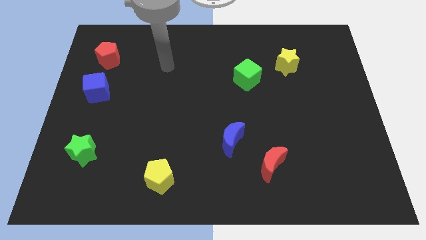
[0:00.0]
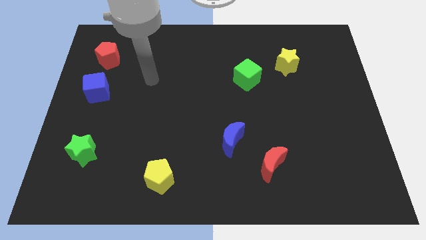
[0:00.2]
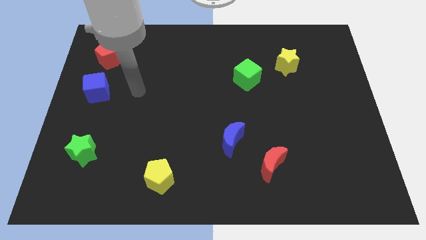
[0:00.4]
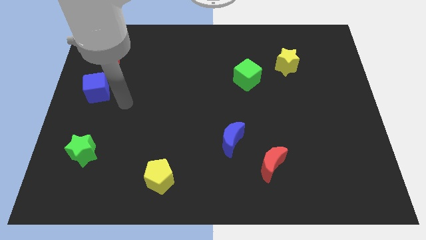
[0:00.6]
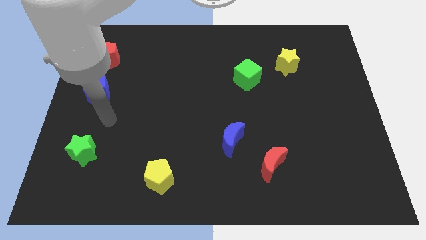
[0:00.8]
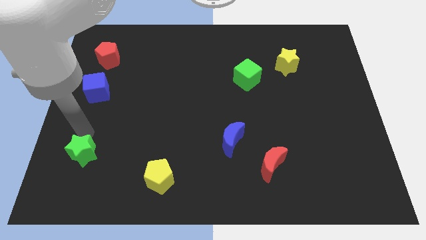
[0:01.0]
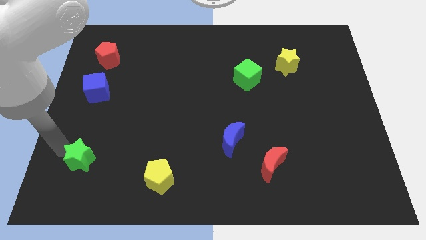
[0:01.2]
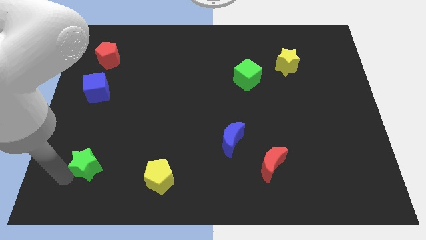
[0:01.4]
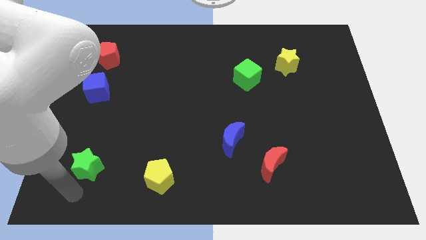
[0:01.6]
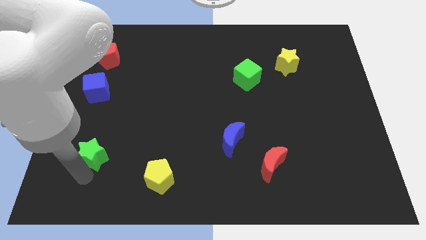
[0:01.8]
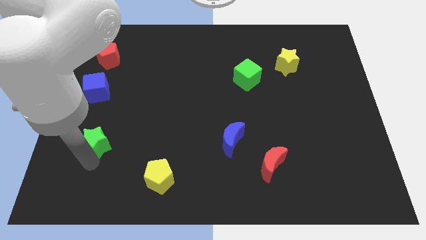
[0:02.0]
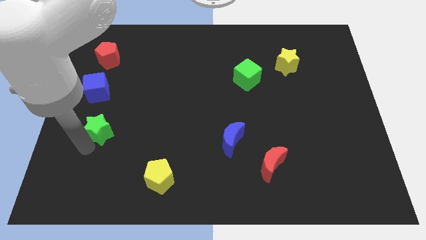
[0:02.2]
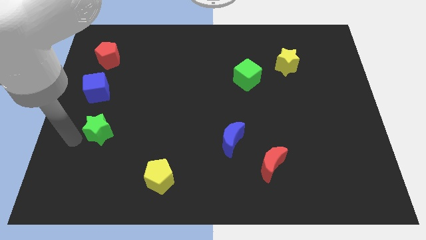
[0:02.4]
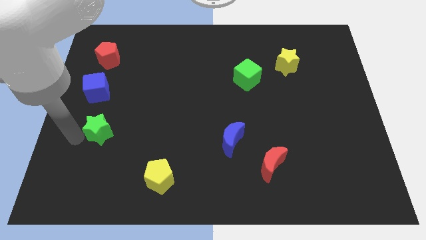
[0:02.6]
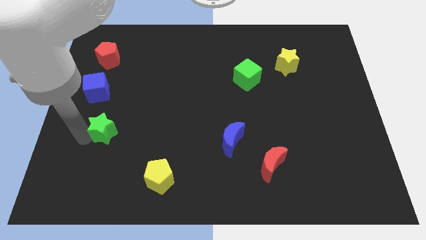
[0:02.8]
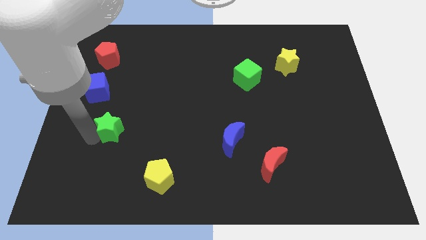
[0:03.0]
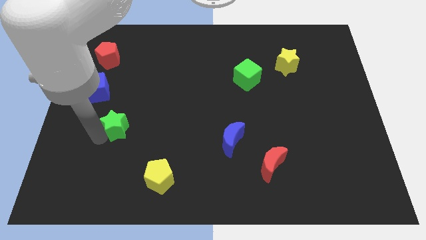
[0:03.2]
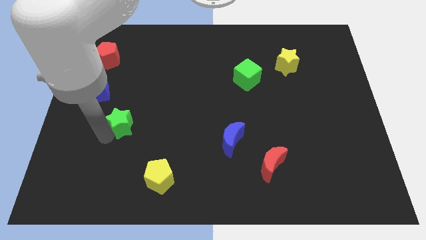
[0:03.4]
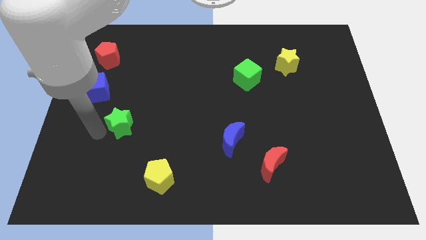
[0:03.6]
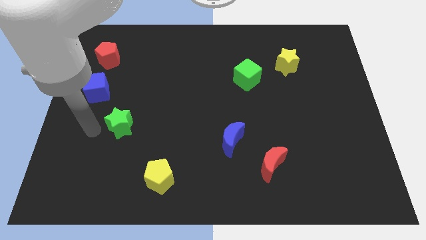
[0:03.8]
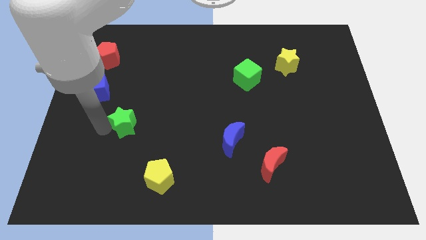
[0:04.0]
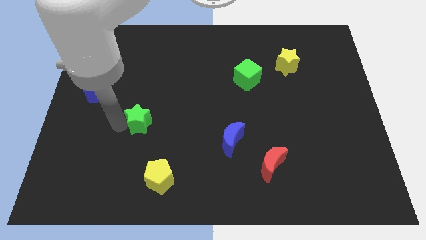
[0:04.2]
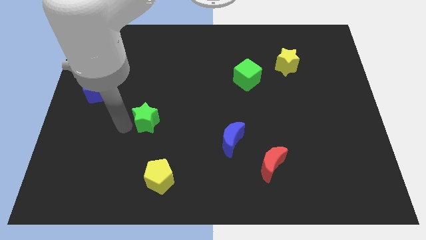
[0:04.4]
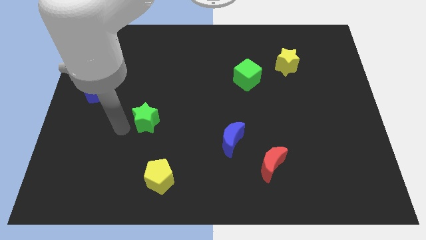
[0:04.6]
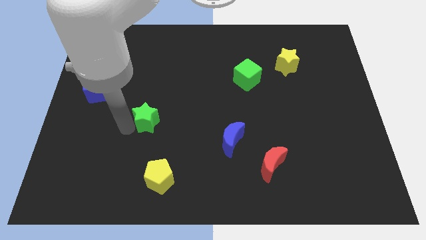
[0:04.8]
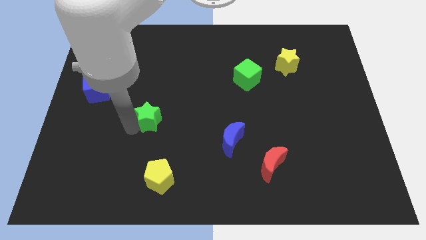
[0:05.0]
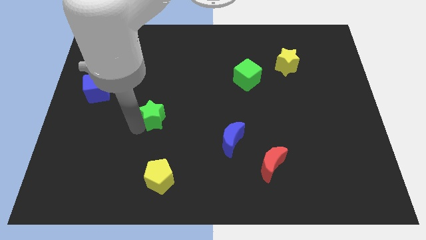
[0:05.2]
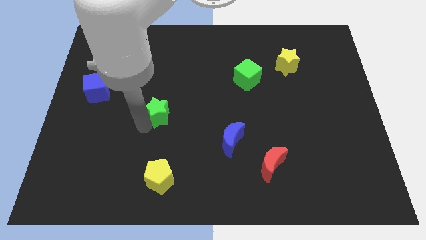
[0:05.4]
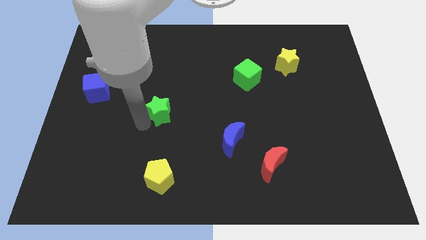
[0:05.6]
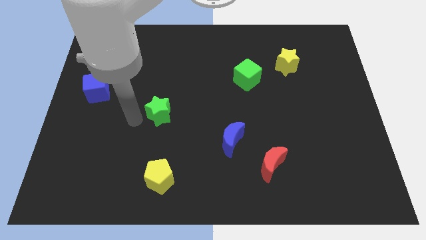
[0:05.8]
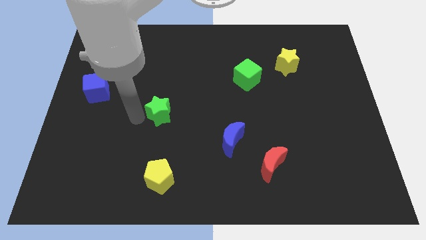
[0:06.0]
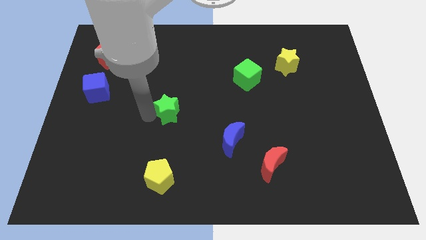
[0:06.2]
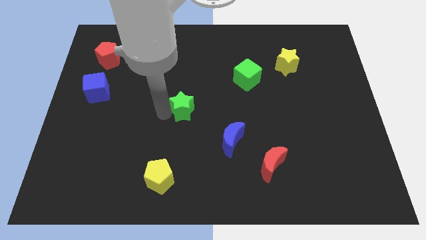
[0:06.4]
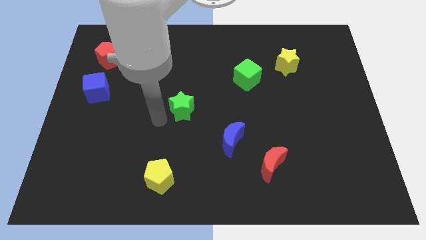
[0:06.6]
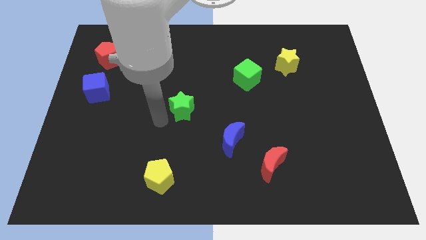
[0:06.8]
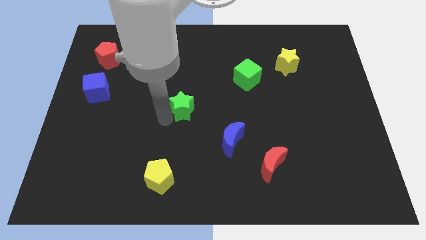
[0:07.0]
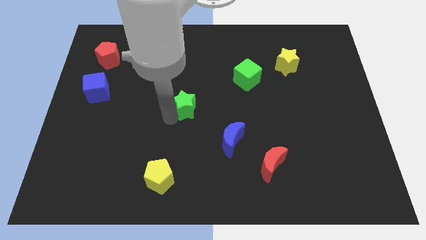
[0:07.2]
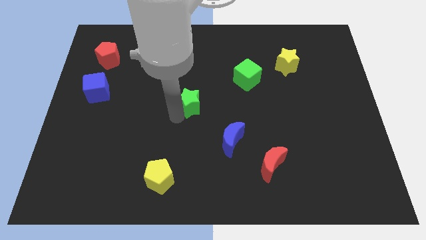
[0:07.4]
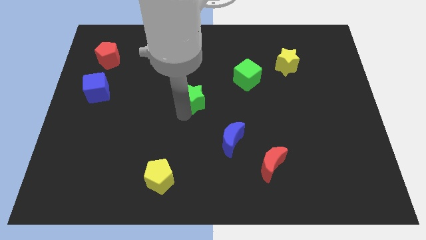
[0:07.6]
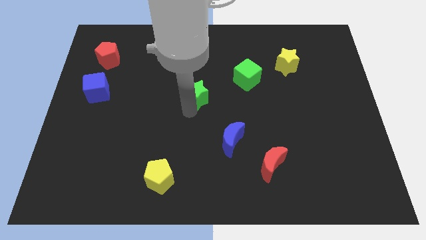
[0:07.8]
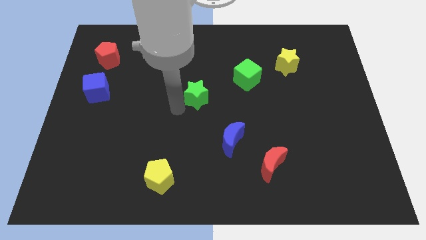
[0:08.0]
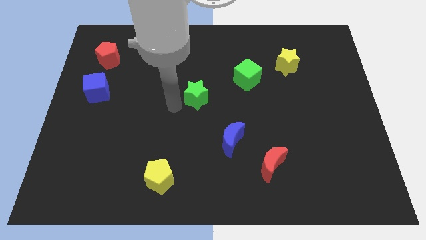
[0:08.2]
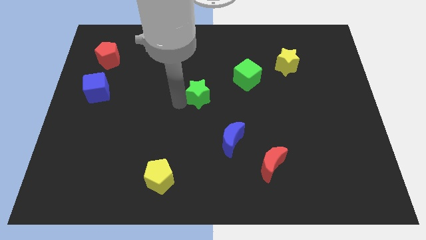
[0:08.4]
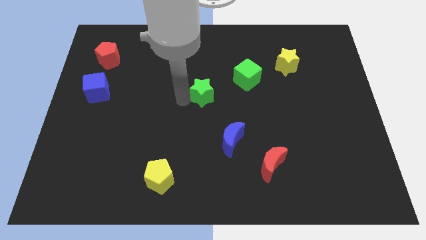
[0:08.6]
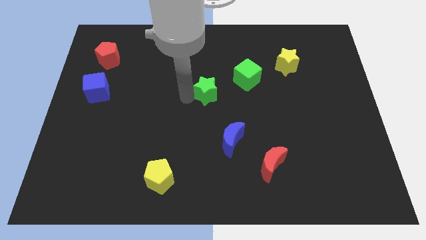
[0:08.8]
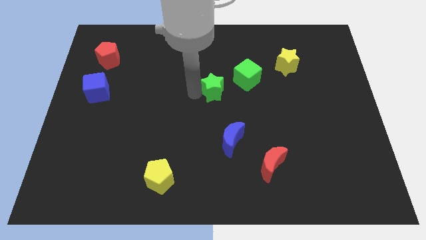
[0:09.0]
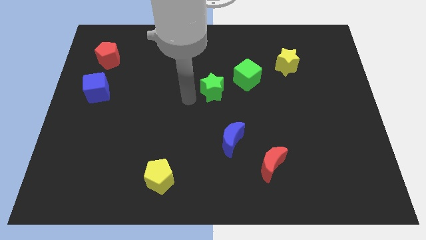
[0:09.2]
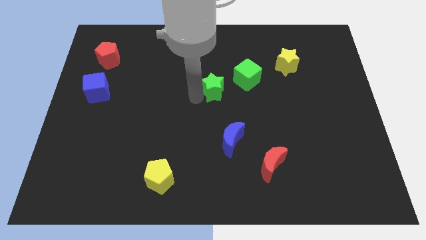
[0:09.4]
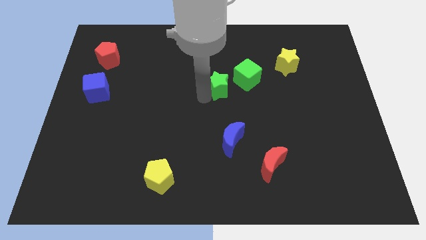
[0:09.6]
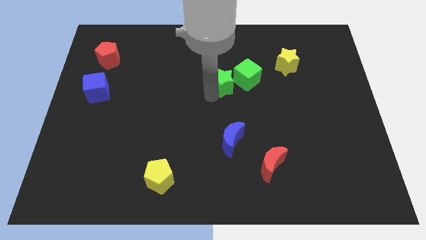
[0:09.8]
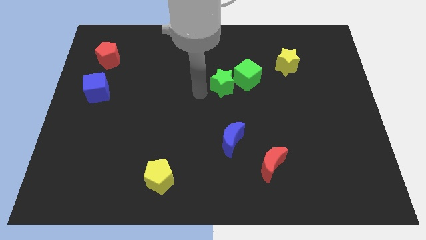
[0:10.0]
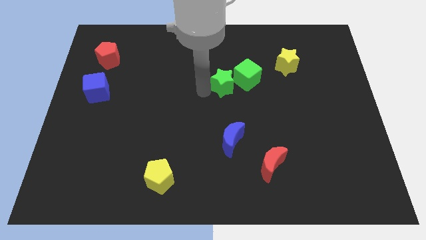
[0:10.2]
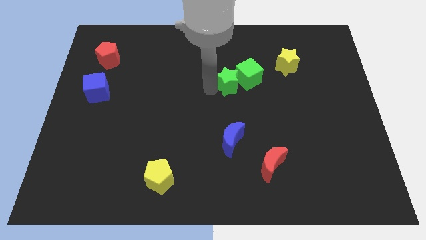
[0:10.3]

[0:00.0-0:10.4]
push the green star next to the green cube

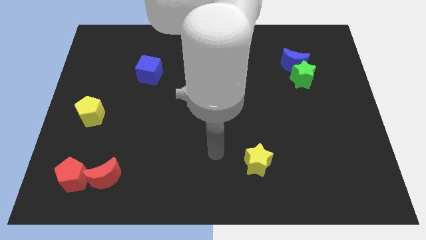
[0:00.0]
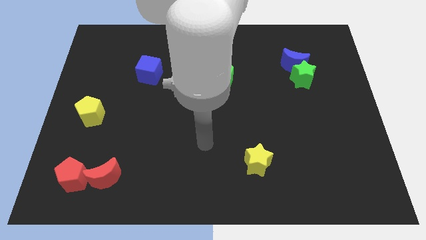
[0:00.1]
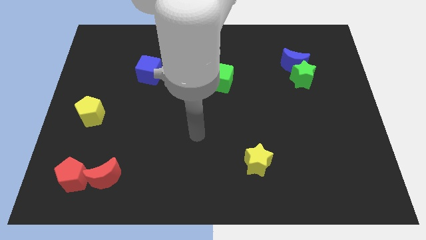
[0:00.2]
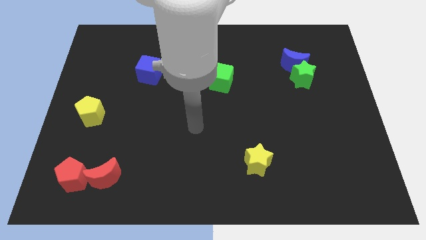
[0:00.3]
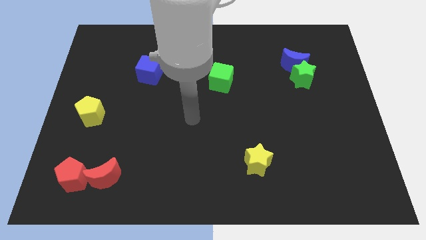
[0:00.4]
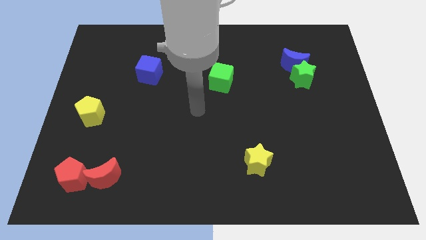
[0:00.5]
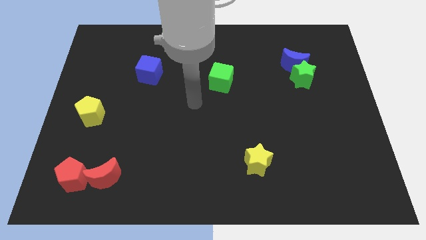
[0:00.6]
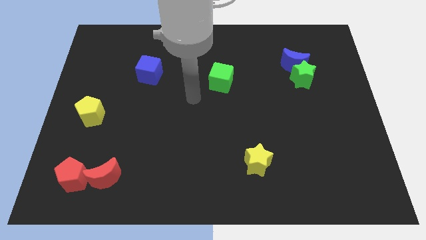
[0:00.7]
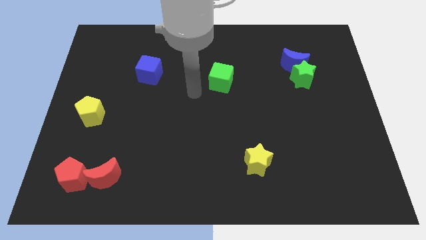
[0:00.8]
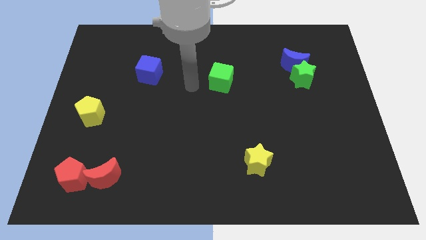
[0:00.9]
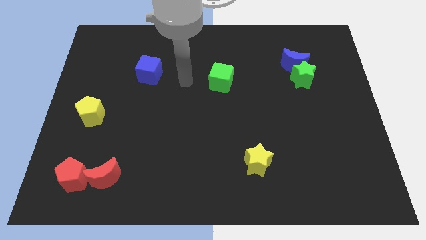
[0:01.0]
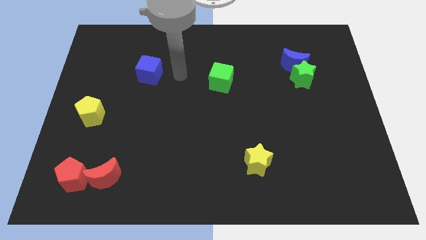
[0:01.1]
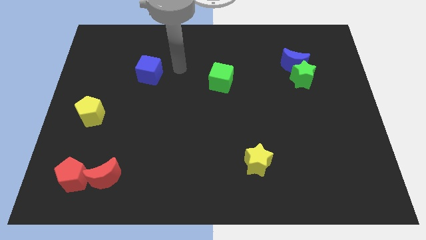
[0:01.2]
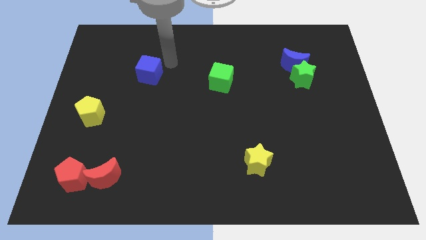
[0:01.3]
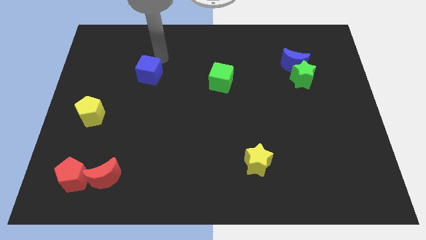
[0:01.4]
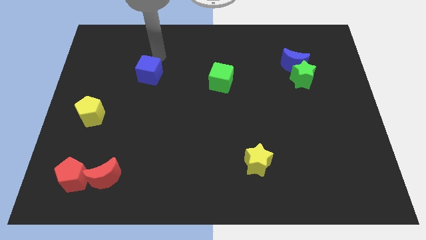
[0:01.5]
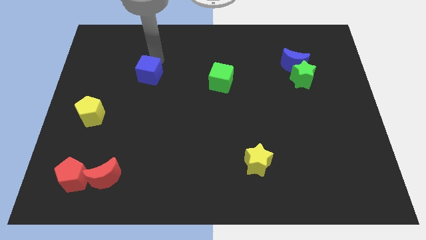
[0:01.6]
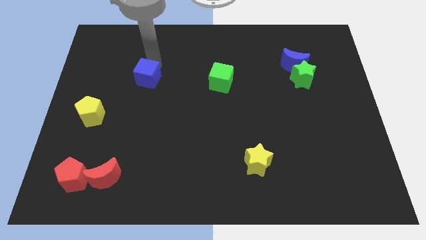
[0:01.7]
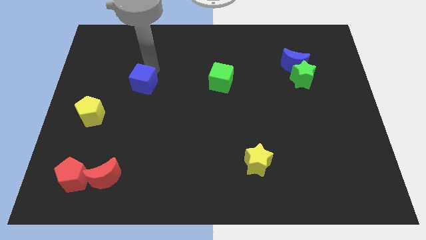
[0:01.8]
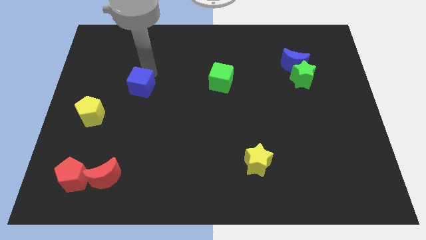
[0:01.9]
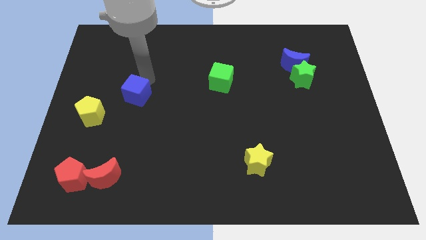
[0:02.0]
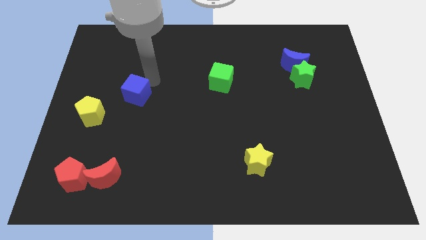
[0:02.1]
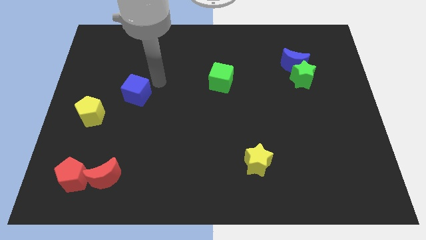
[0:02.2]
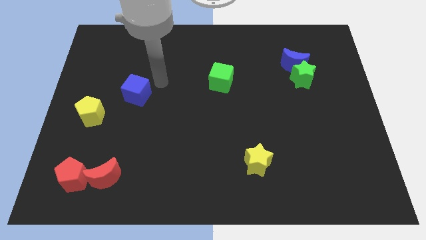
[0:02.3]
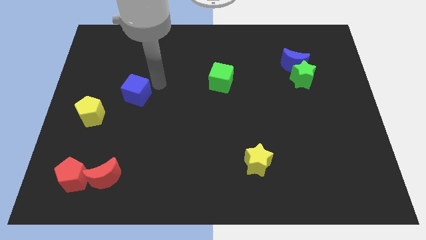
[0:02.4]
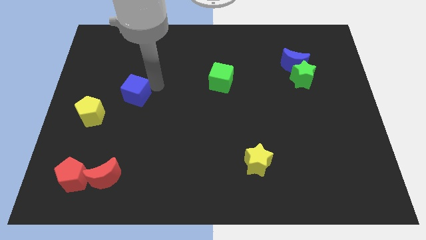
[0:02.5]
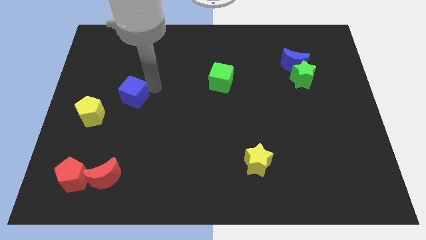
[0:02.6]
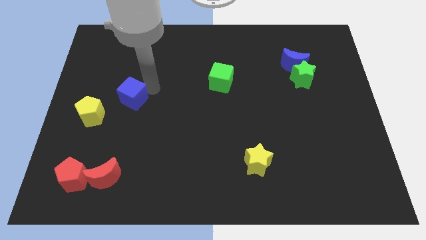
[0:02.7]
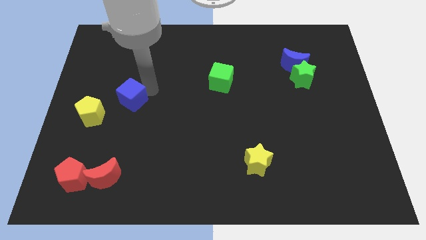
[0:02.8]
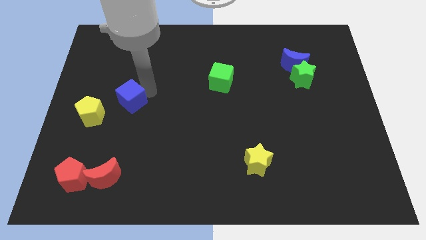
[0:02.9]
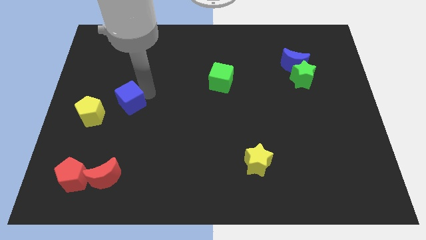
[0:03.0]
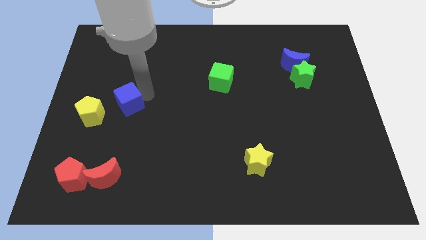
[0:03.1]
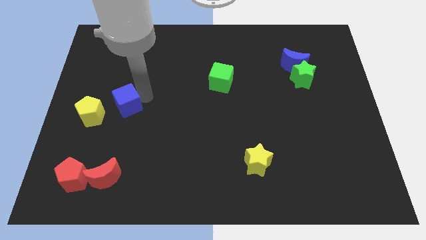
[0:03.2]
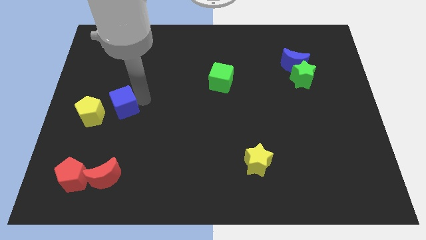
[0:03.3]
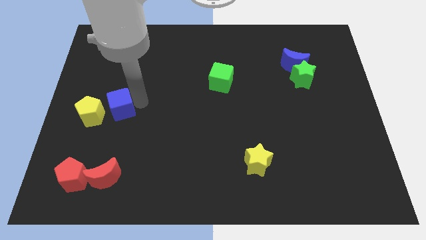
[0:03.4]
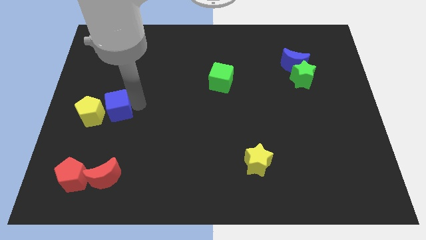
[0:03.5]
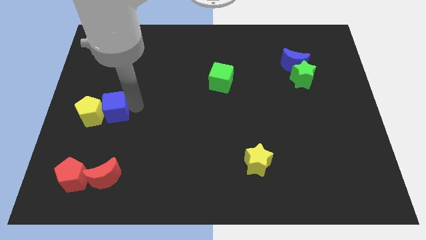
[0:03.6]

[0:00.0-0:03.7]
move the blue cube close to the yellow pentagon
